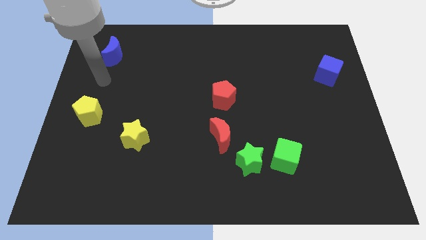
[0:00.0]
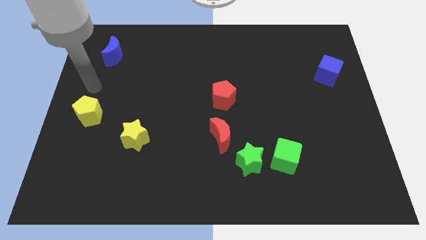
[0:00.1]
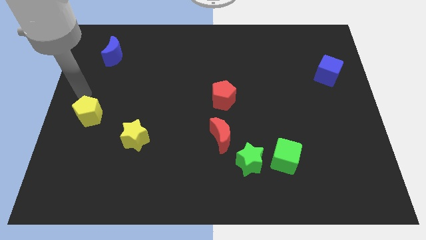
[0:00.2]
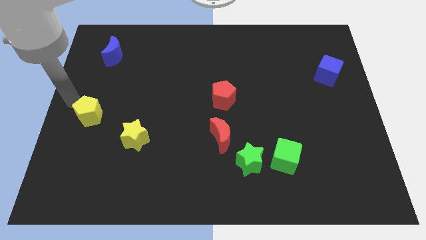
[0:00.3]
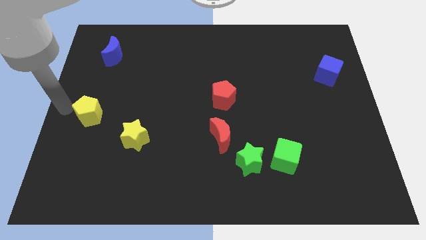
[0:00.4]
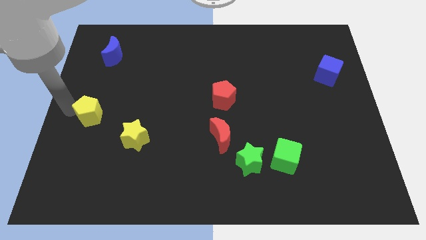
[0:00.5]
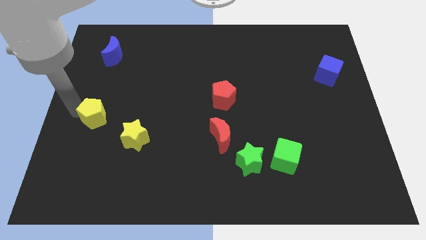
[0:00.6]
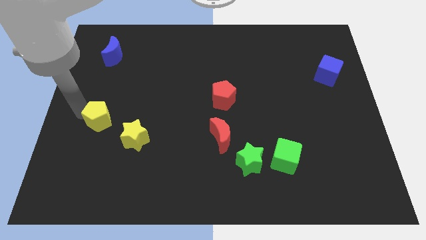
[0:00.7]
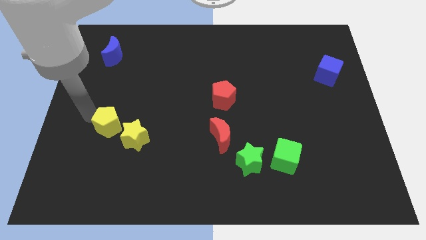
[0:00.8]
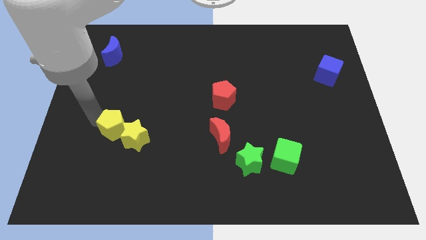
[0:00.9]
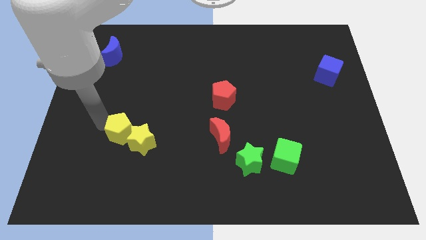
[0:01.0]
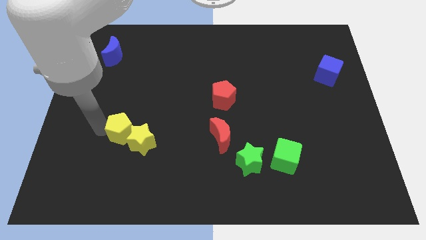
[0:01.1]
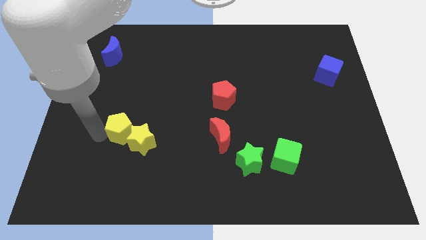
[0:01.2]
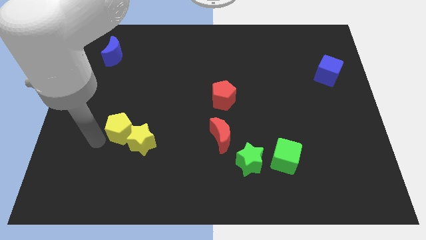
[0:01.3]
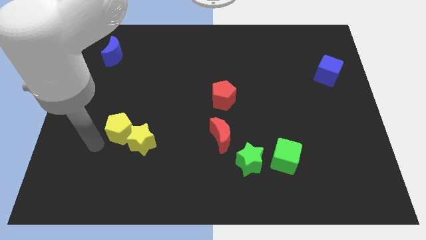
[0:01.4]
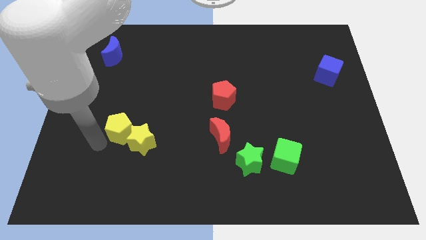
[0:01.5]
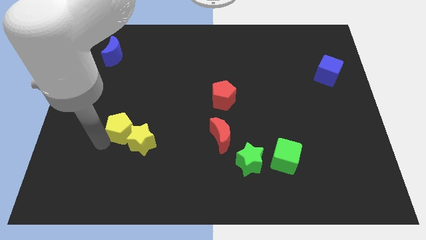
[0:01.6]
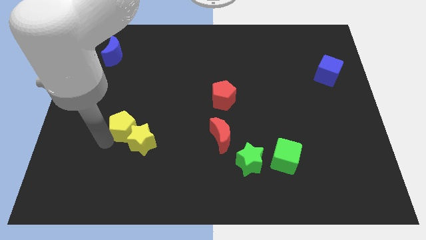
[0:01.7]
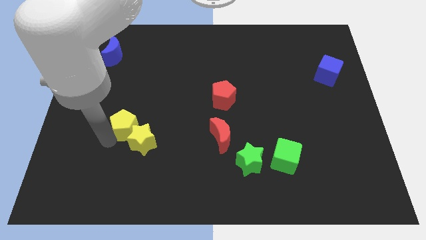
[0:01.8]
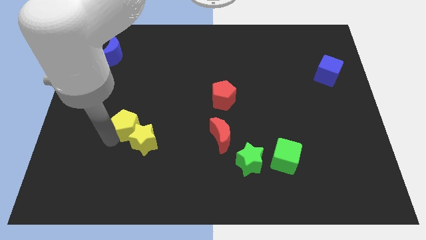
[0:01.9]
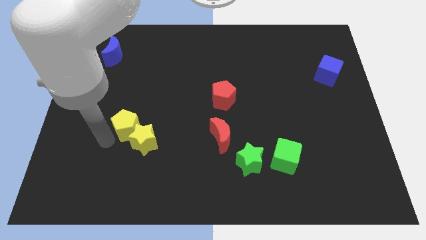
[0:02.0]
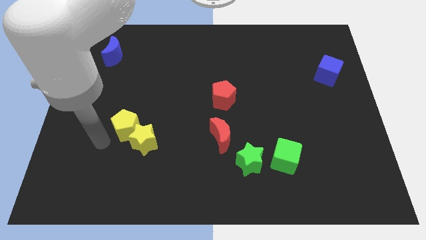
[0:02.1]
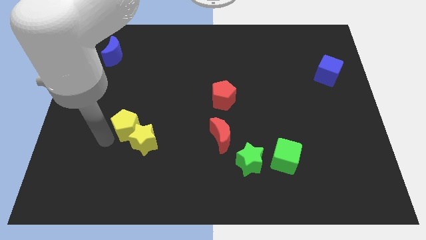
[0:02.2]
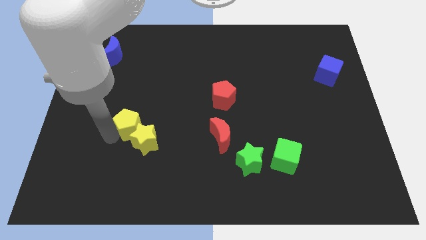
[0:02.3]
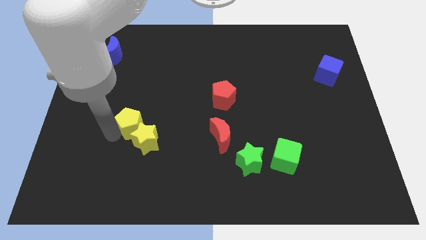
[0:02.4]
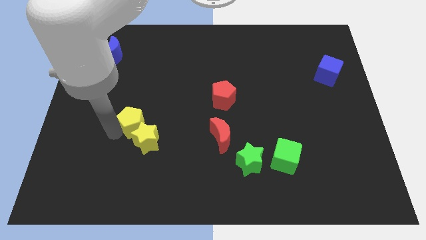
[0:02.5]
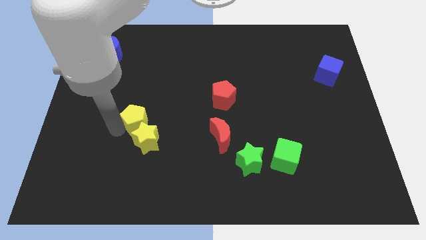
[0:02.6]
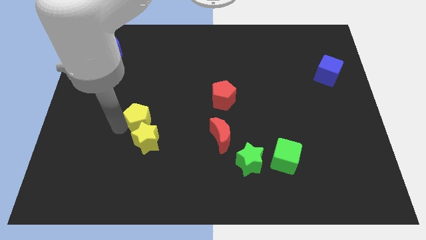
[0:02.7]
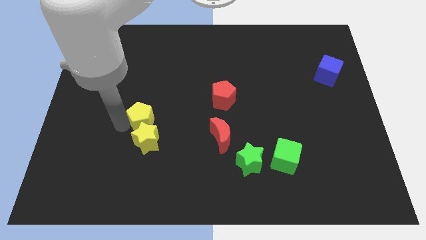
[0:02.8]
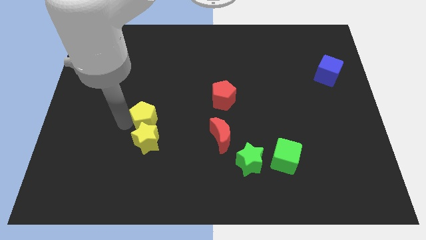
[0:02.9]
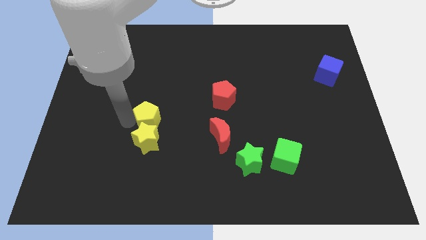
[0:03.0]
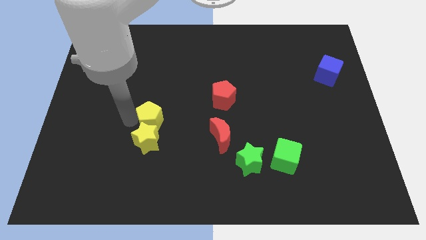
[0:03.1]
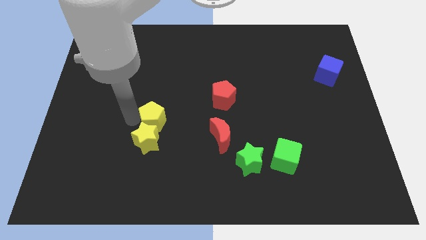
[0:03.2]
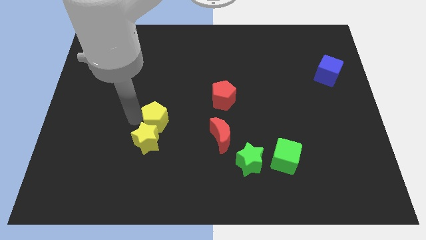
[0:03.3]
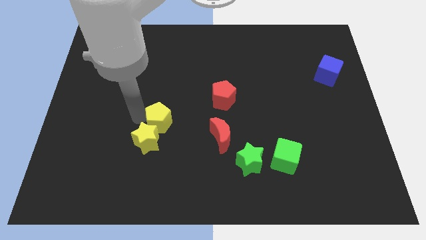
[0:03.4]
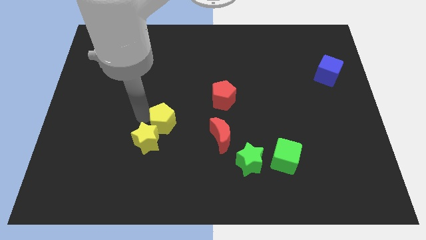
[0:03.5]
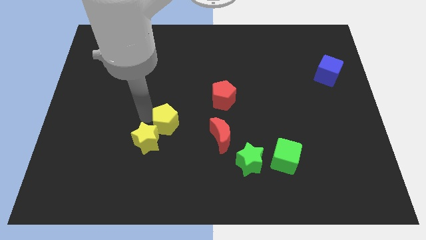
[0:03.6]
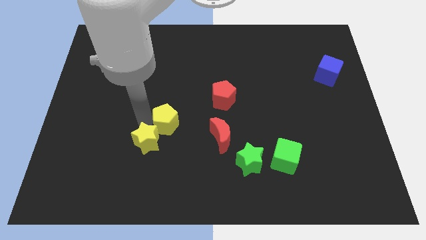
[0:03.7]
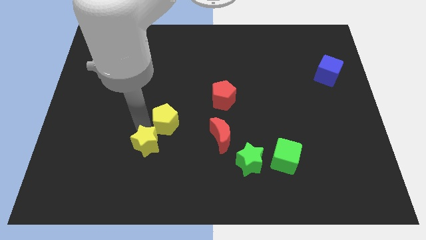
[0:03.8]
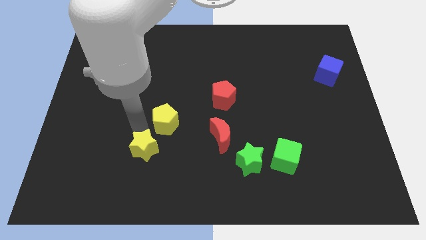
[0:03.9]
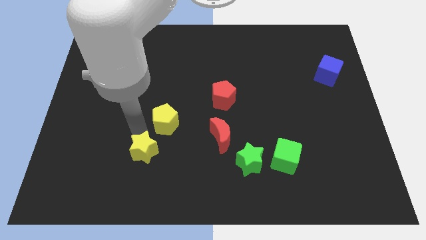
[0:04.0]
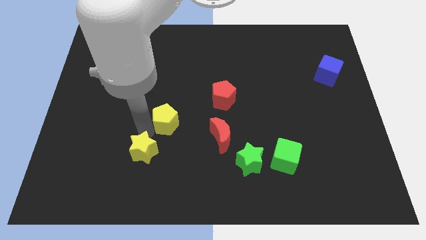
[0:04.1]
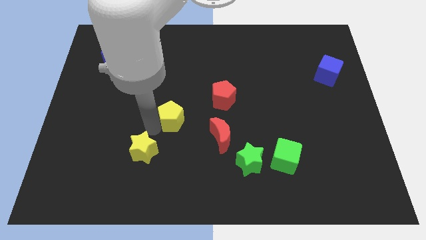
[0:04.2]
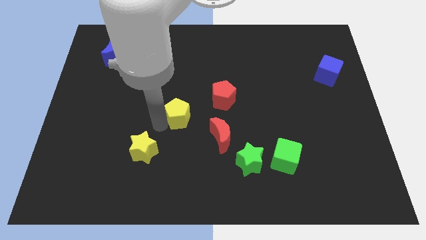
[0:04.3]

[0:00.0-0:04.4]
slide the yellow pentagon right

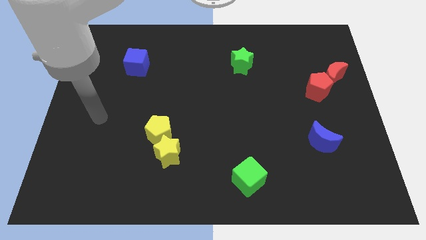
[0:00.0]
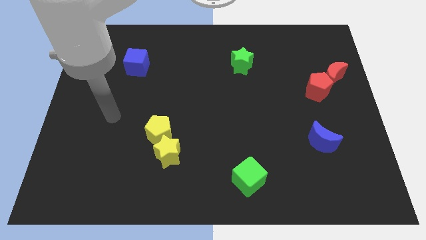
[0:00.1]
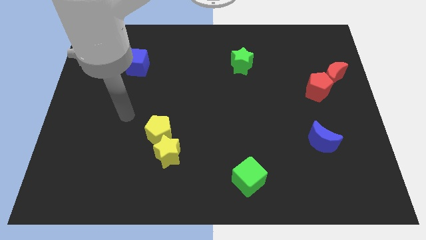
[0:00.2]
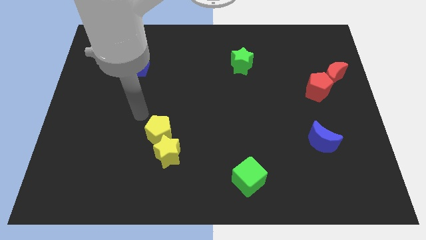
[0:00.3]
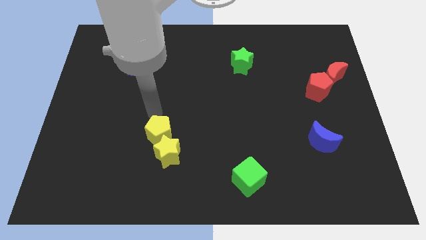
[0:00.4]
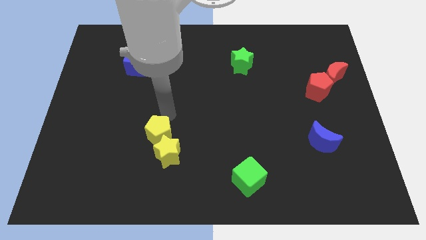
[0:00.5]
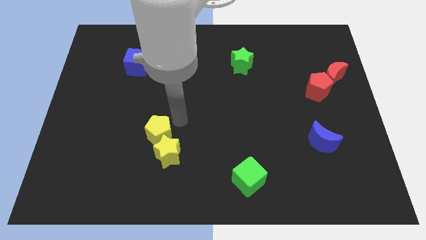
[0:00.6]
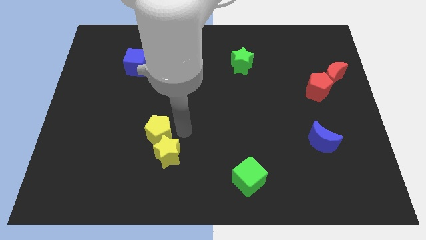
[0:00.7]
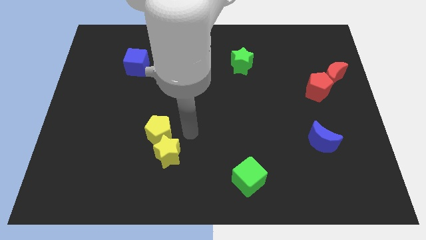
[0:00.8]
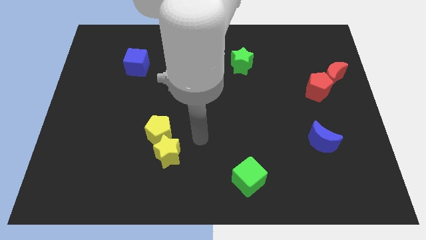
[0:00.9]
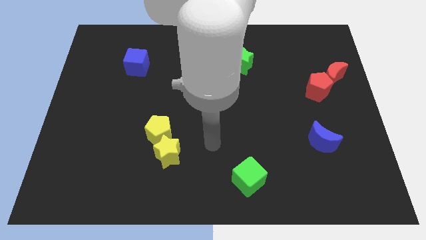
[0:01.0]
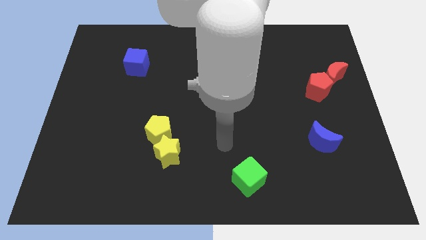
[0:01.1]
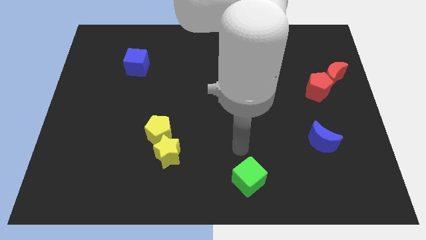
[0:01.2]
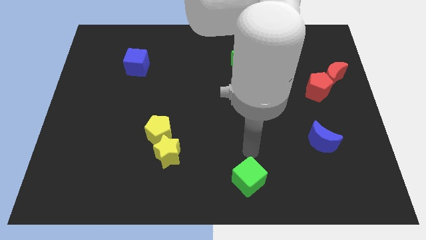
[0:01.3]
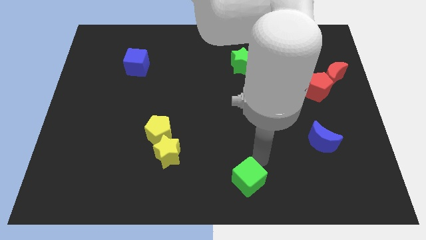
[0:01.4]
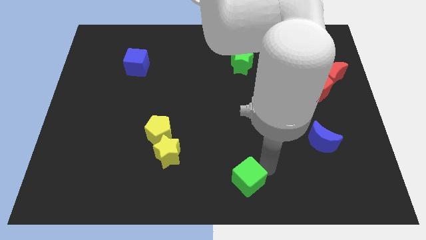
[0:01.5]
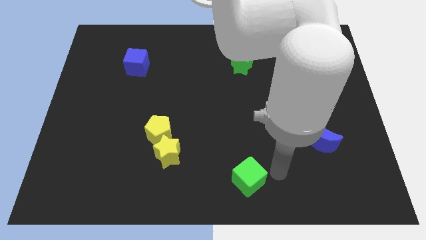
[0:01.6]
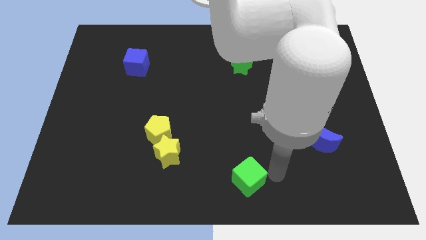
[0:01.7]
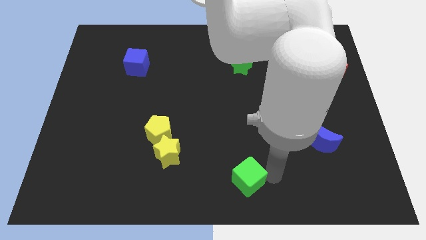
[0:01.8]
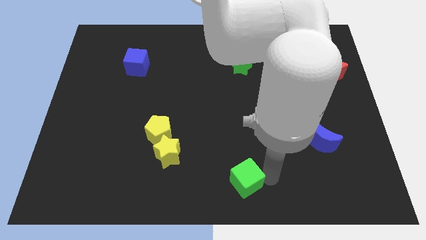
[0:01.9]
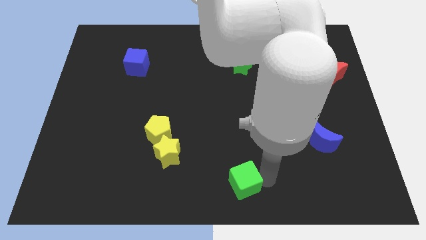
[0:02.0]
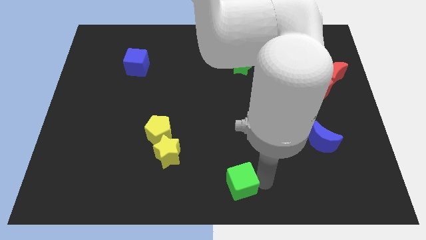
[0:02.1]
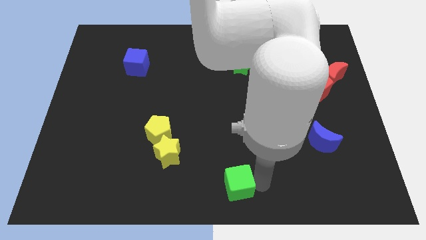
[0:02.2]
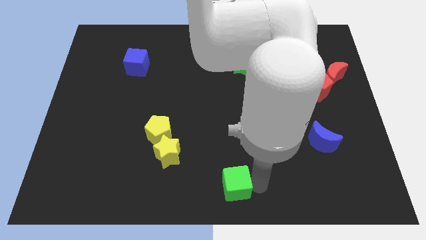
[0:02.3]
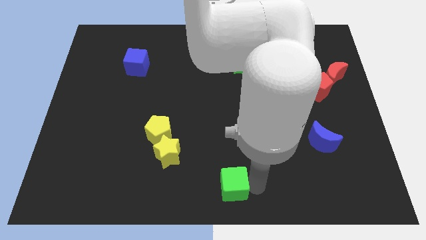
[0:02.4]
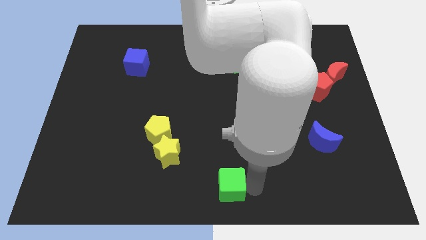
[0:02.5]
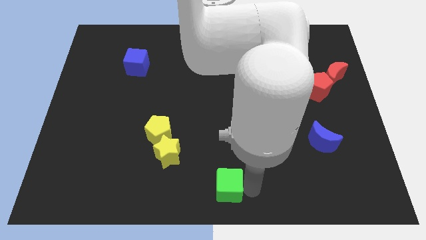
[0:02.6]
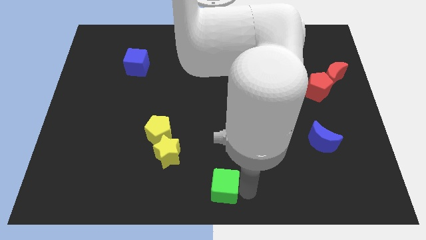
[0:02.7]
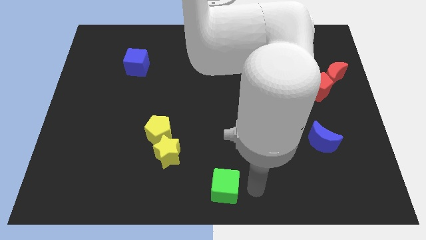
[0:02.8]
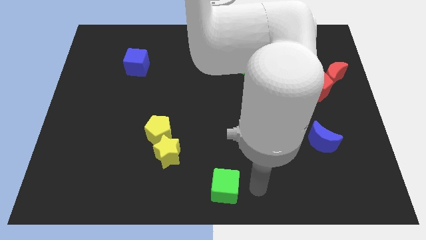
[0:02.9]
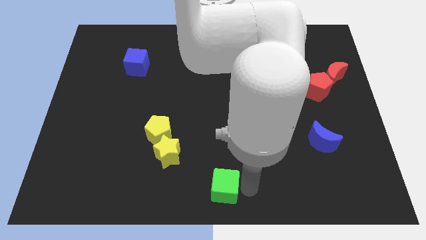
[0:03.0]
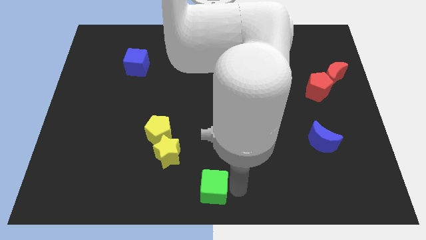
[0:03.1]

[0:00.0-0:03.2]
slide the green cube somewhat left

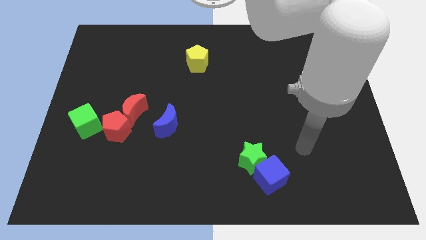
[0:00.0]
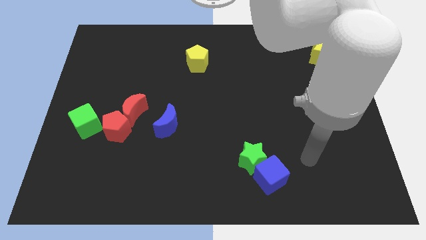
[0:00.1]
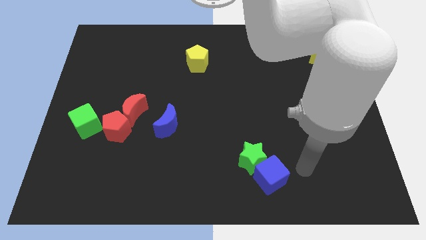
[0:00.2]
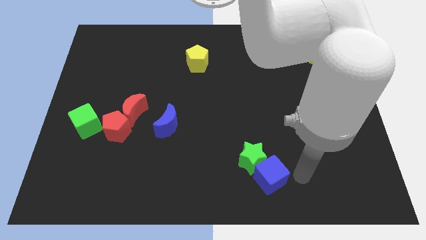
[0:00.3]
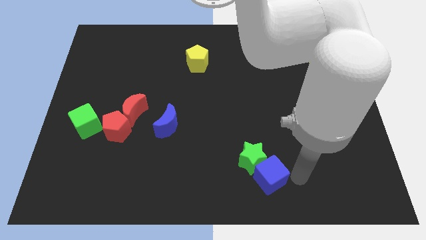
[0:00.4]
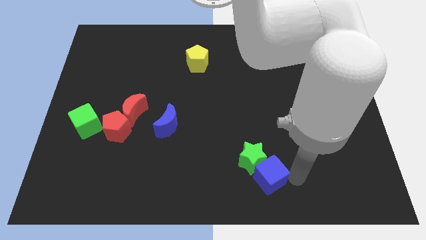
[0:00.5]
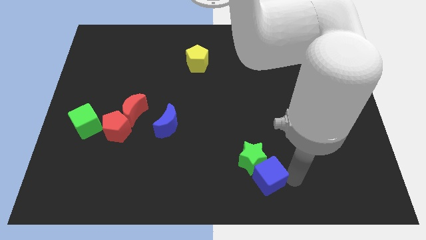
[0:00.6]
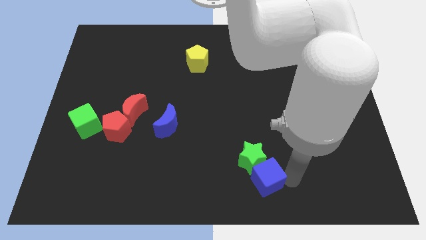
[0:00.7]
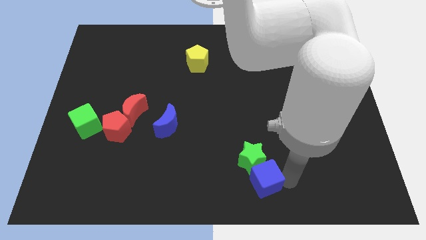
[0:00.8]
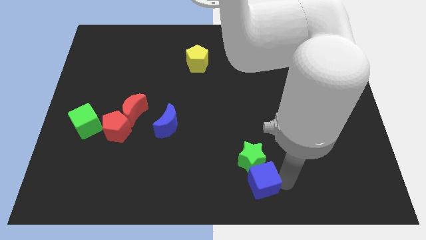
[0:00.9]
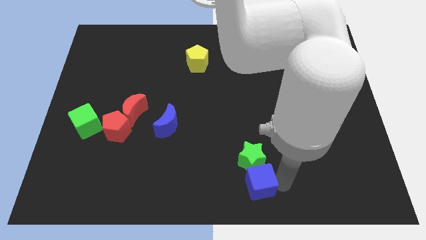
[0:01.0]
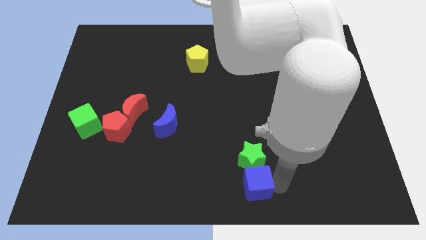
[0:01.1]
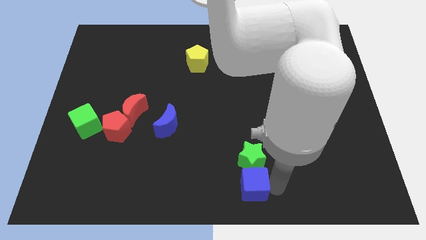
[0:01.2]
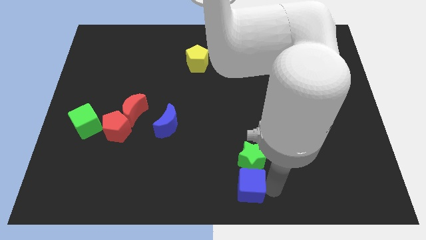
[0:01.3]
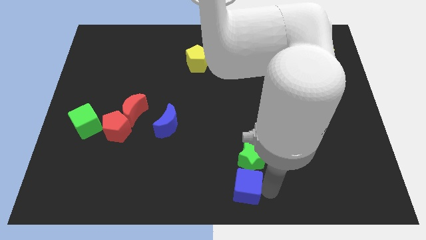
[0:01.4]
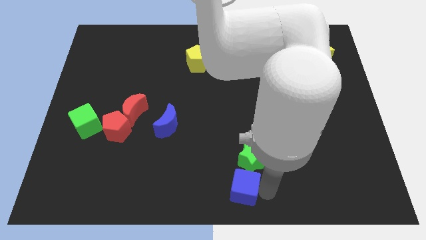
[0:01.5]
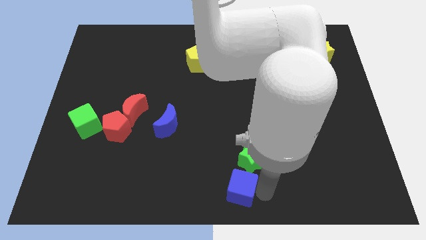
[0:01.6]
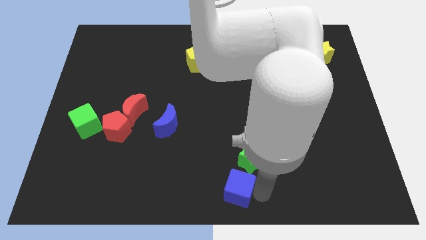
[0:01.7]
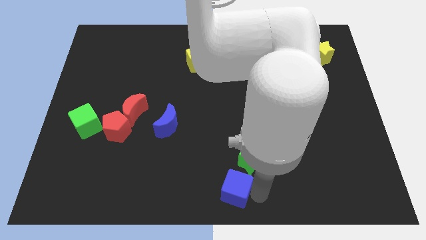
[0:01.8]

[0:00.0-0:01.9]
slide the blue cube left slightly
